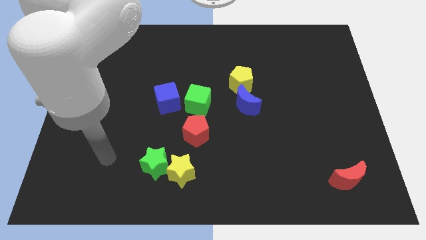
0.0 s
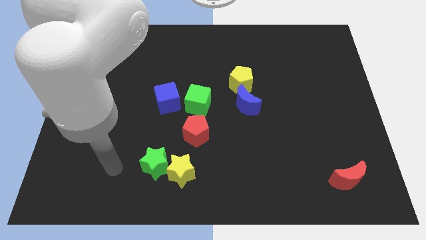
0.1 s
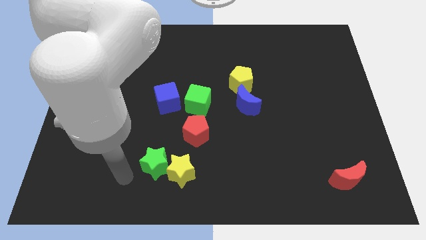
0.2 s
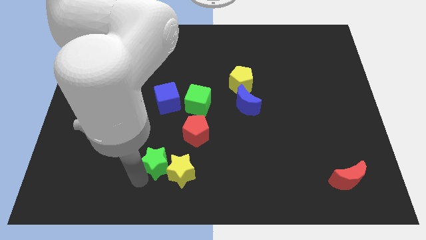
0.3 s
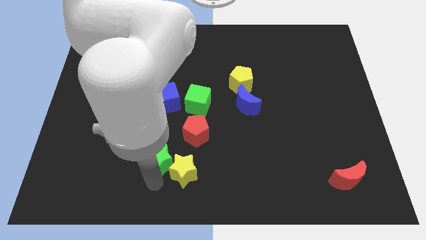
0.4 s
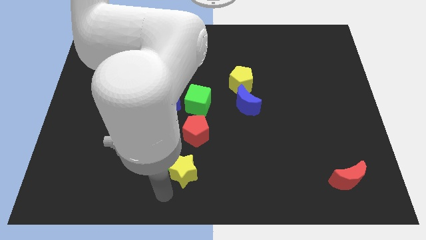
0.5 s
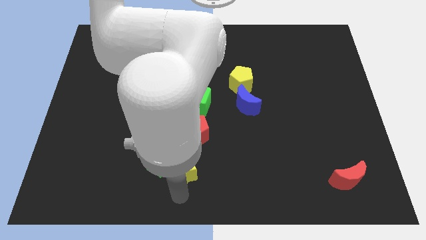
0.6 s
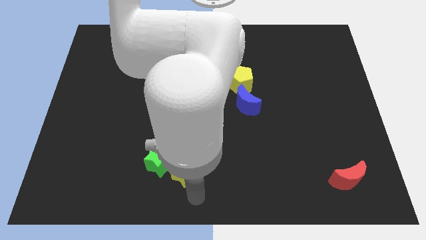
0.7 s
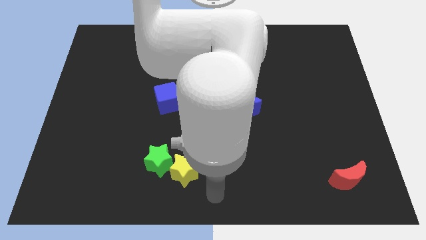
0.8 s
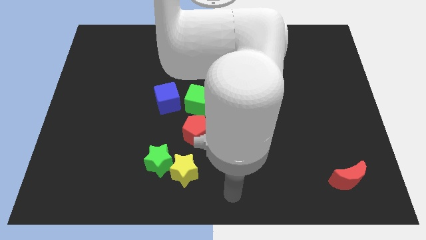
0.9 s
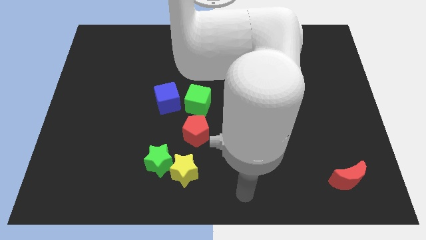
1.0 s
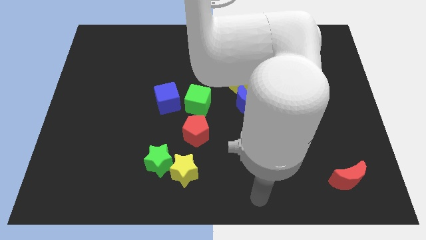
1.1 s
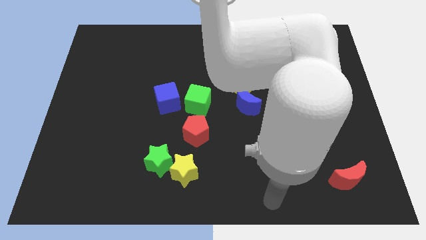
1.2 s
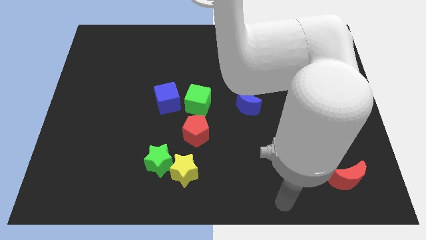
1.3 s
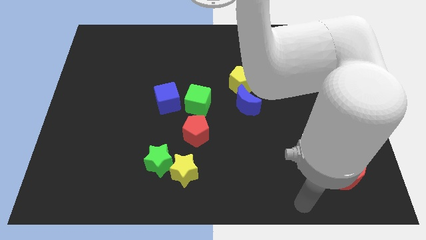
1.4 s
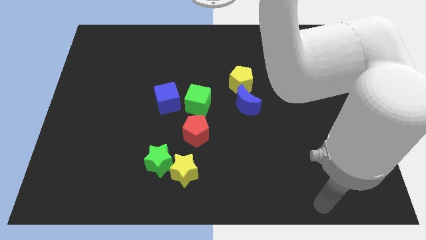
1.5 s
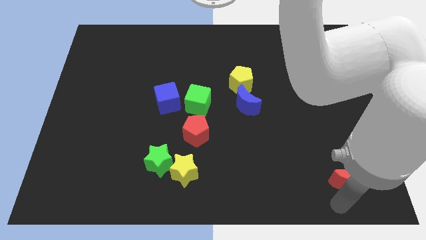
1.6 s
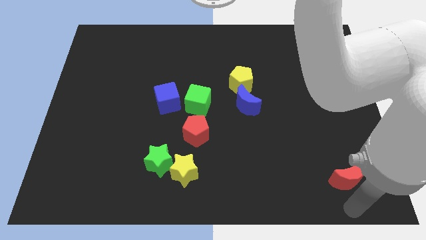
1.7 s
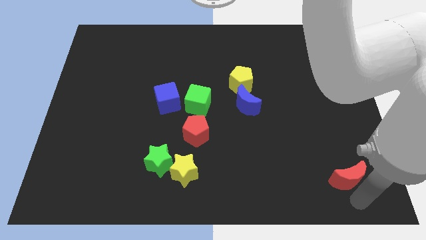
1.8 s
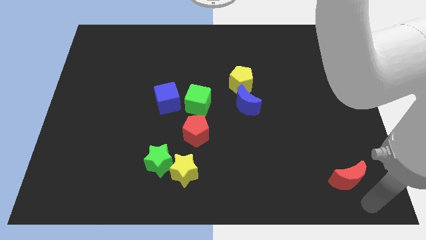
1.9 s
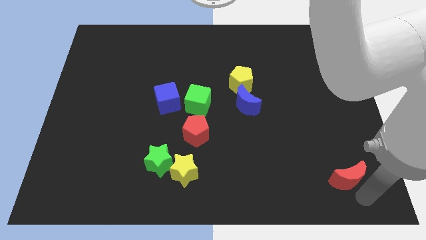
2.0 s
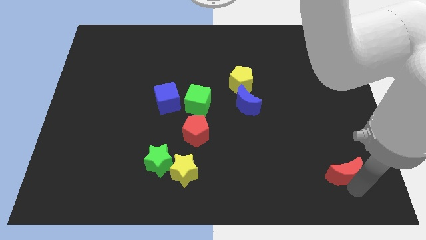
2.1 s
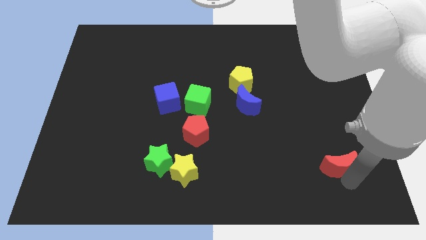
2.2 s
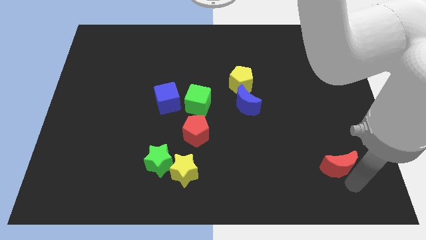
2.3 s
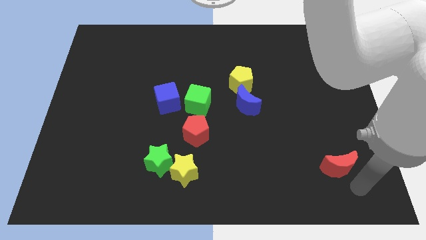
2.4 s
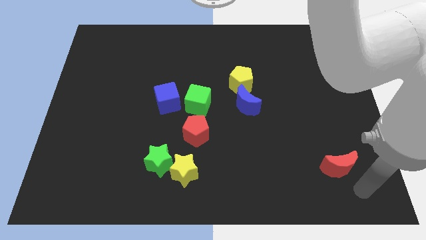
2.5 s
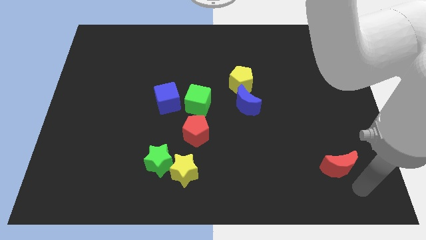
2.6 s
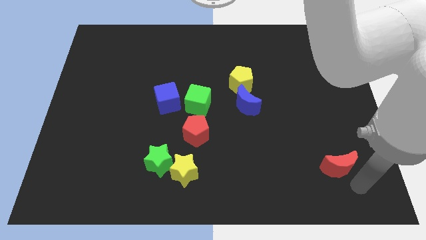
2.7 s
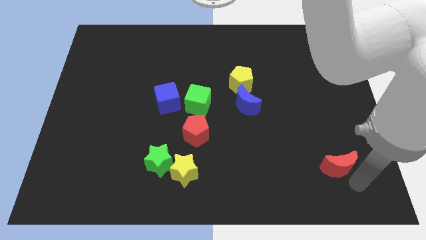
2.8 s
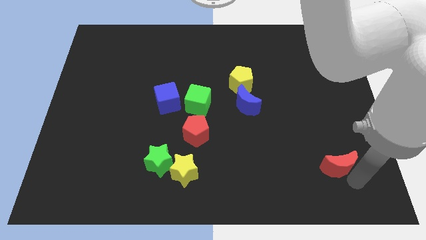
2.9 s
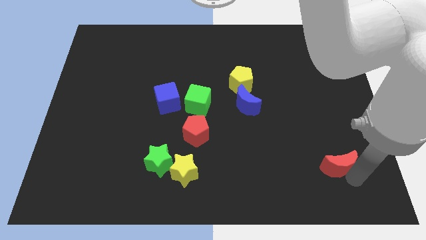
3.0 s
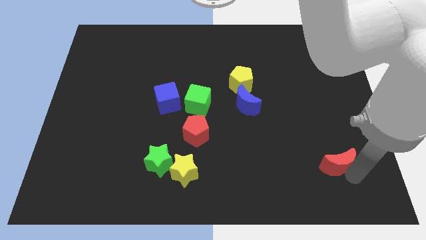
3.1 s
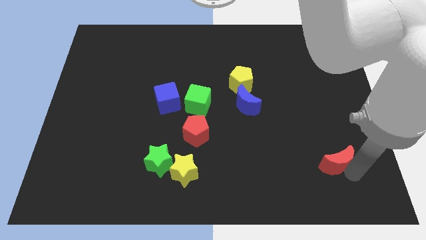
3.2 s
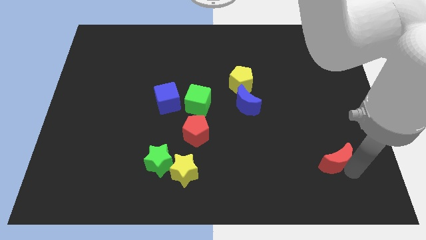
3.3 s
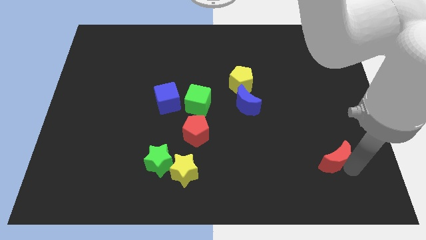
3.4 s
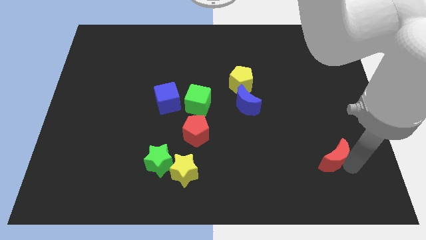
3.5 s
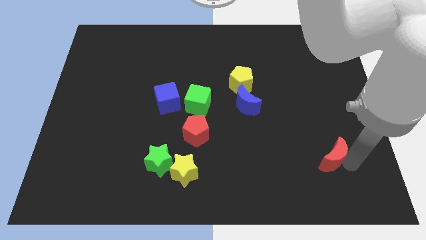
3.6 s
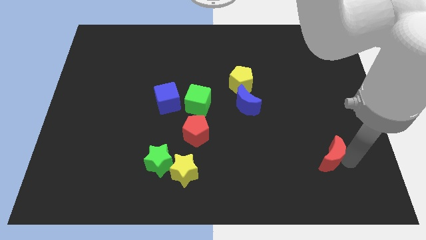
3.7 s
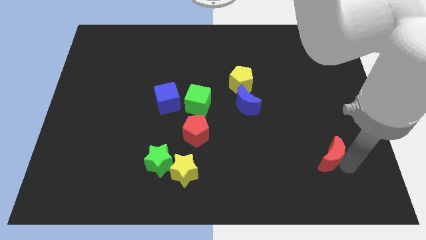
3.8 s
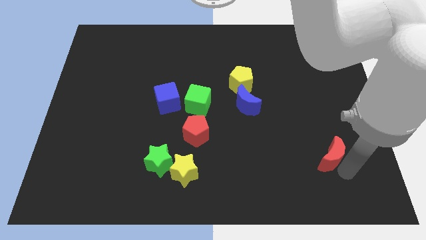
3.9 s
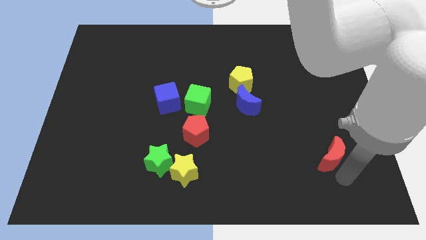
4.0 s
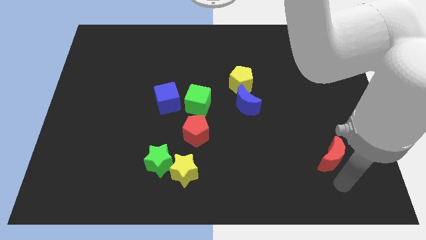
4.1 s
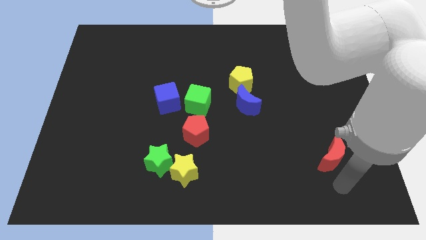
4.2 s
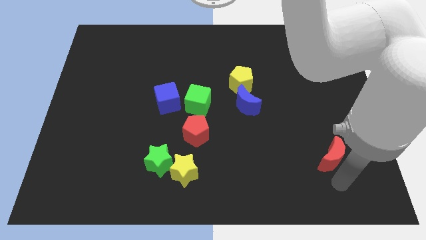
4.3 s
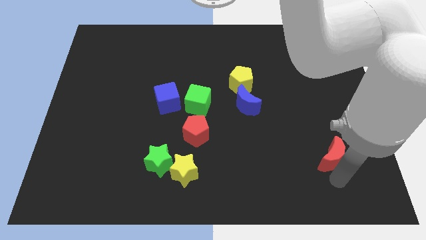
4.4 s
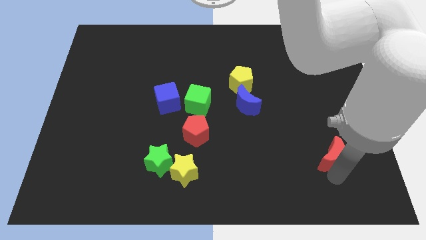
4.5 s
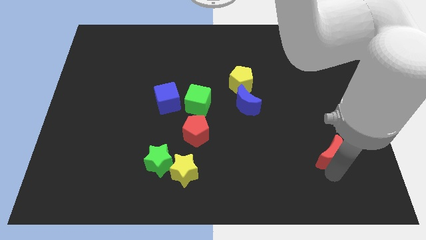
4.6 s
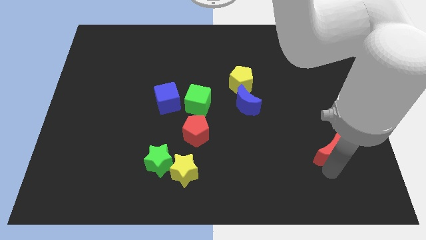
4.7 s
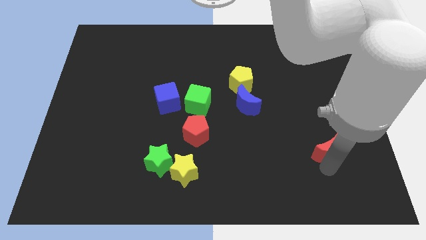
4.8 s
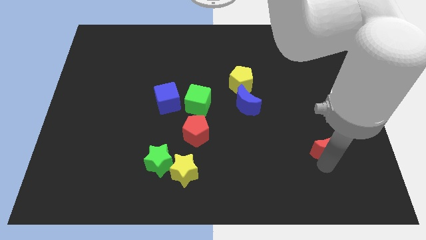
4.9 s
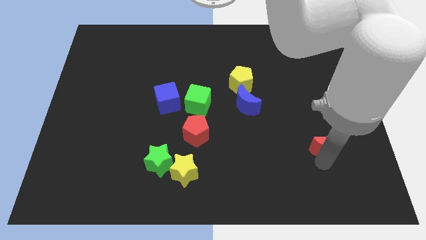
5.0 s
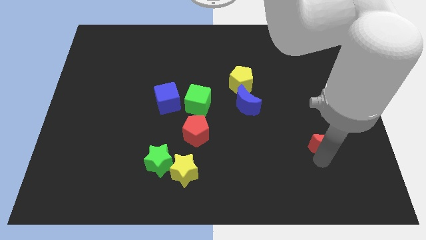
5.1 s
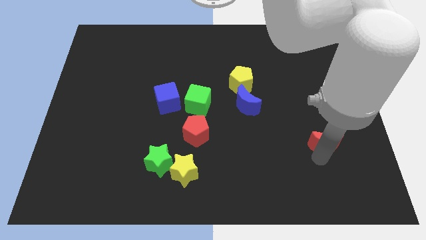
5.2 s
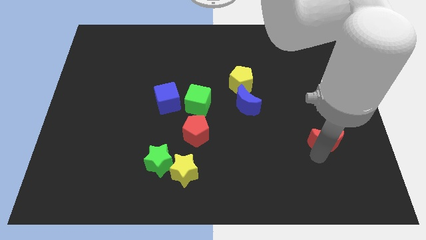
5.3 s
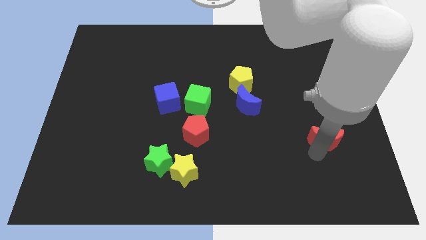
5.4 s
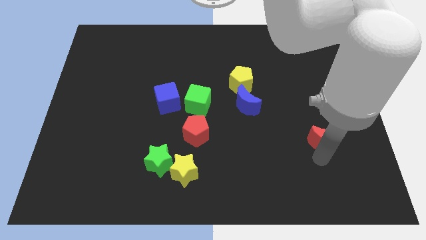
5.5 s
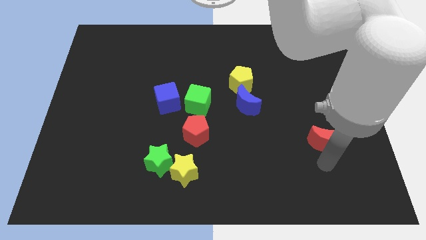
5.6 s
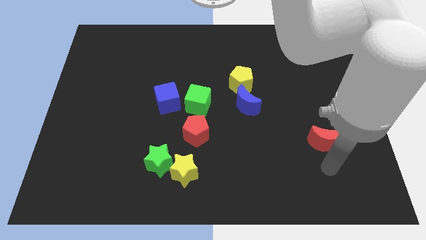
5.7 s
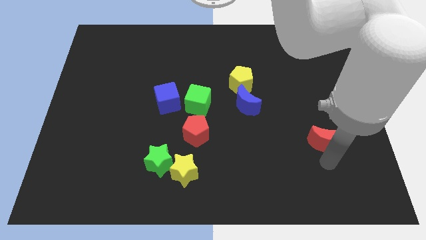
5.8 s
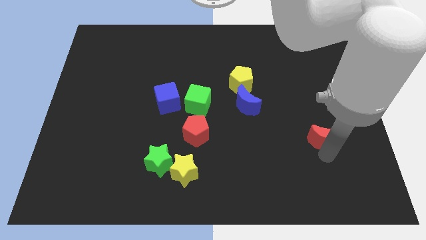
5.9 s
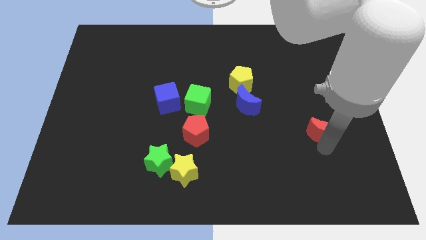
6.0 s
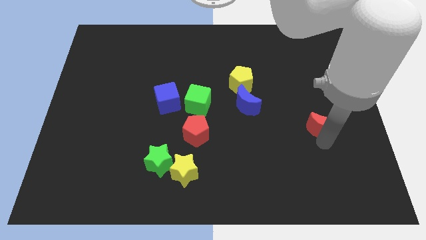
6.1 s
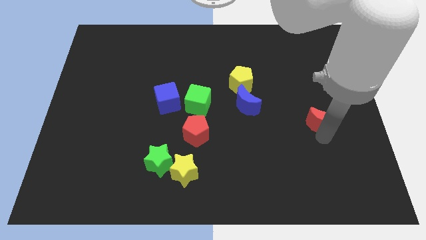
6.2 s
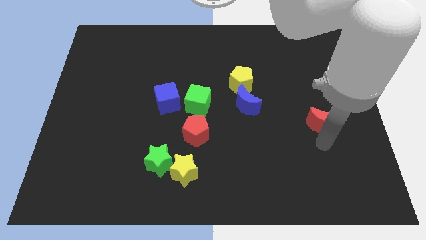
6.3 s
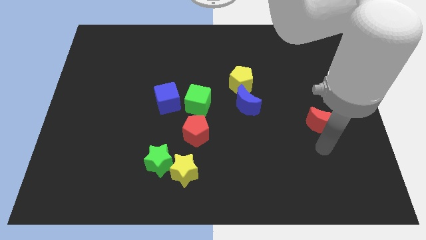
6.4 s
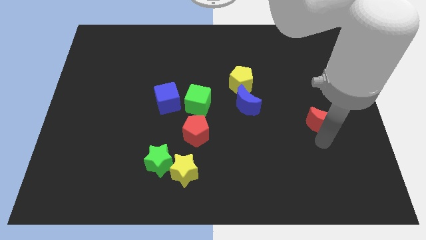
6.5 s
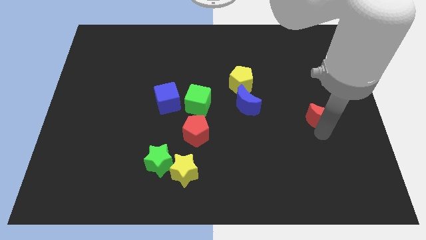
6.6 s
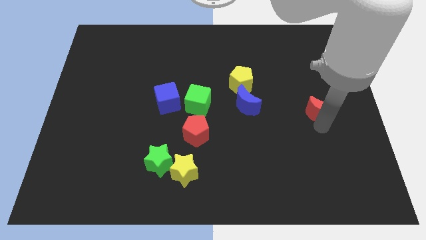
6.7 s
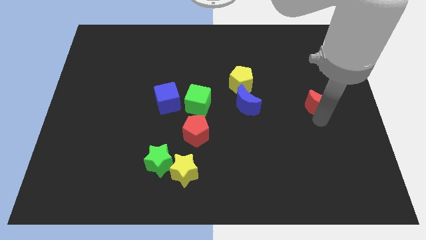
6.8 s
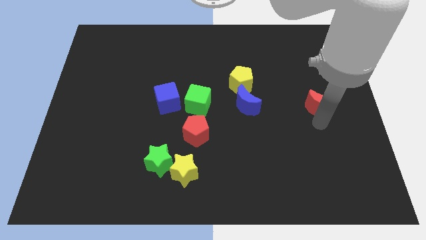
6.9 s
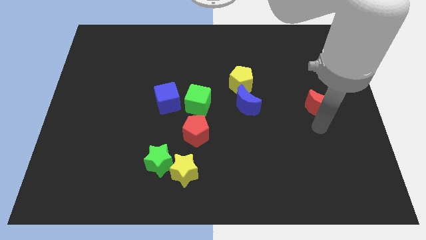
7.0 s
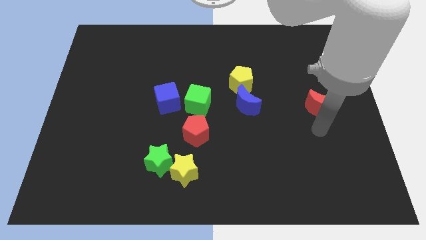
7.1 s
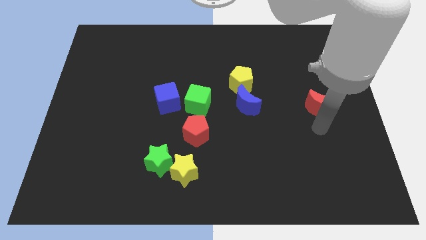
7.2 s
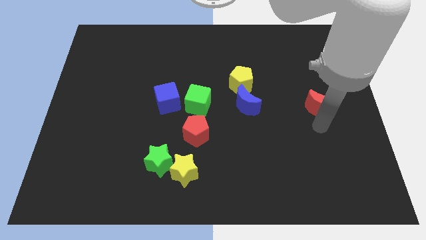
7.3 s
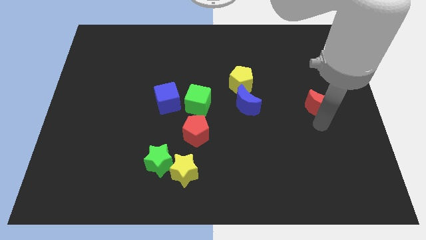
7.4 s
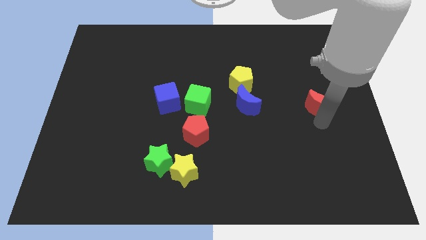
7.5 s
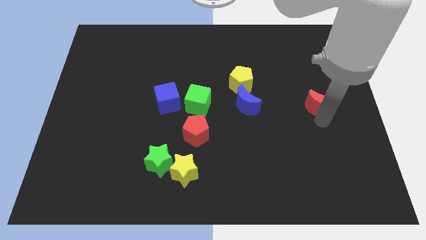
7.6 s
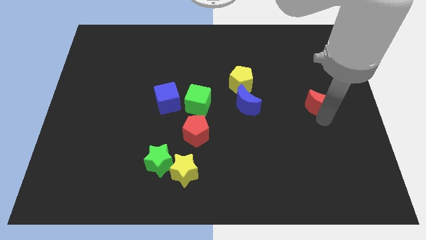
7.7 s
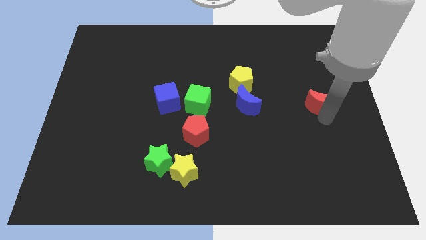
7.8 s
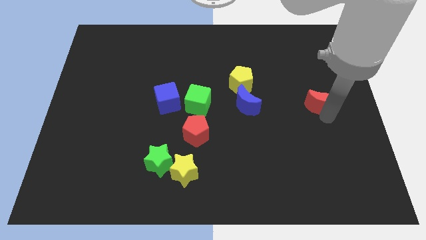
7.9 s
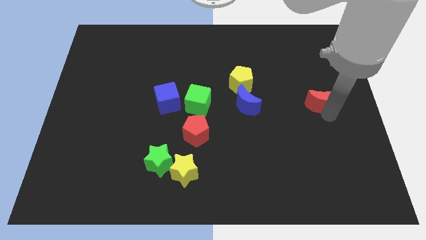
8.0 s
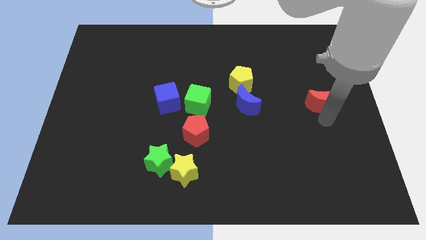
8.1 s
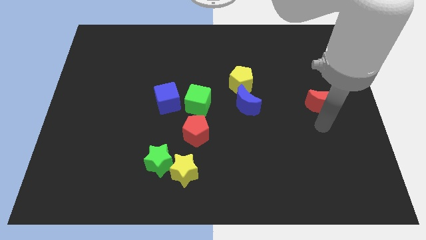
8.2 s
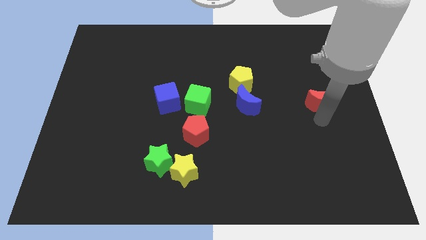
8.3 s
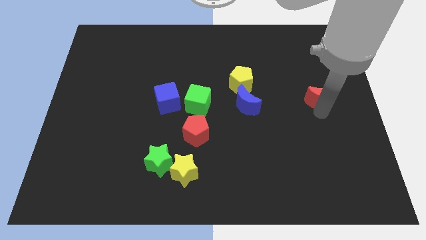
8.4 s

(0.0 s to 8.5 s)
slide the red moon up
